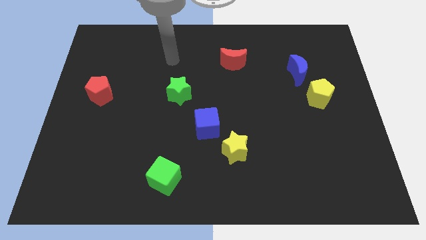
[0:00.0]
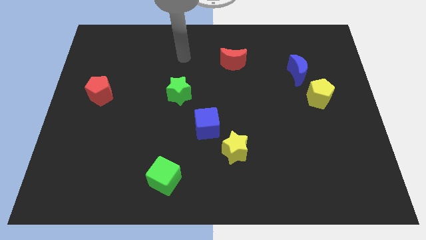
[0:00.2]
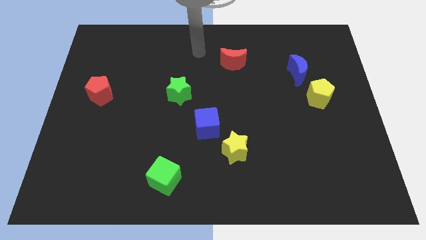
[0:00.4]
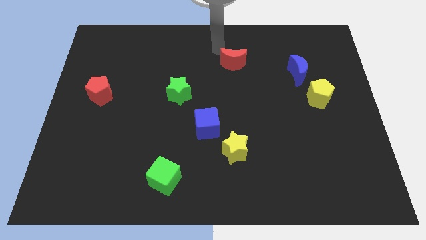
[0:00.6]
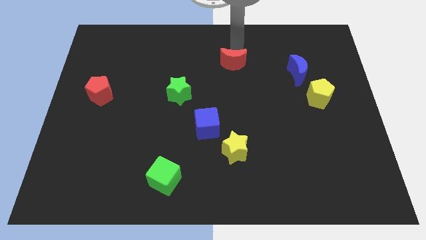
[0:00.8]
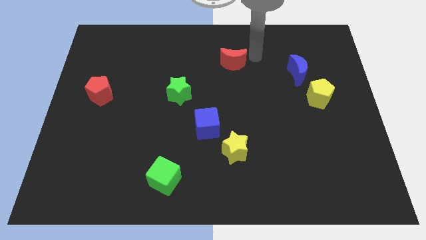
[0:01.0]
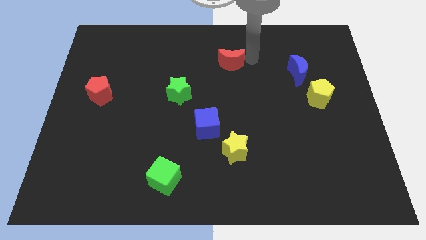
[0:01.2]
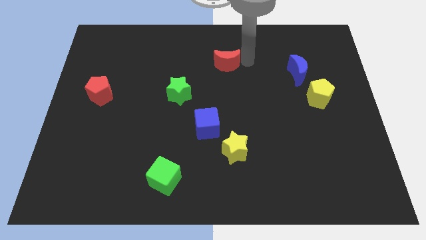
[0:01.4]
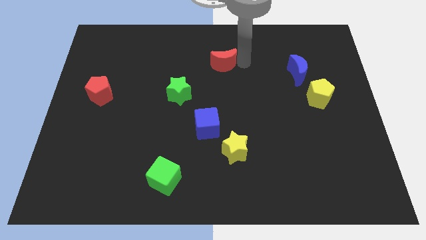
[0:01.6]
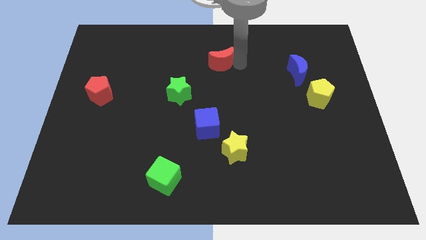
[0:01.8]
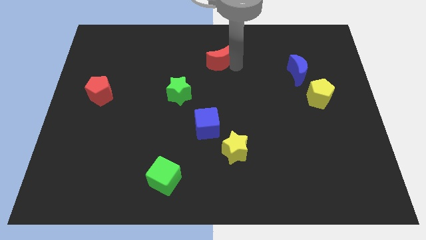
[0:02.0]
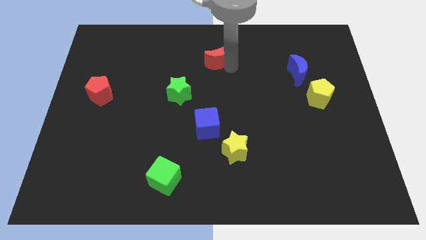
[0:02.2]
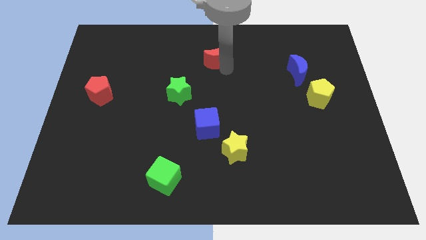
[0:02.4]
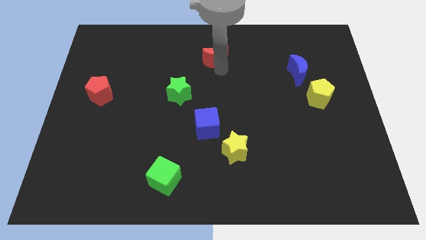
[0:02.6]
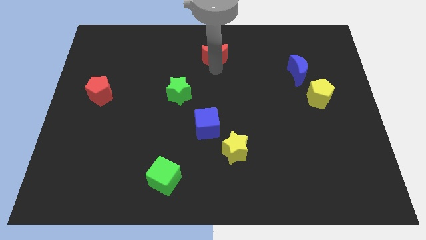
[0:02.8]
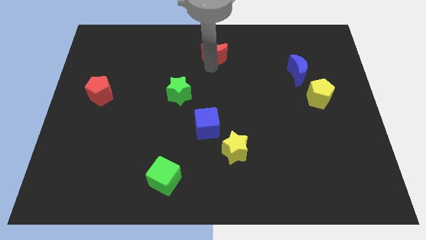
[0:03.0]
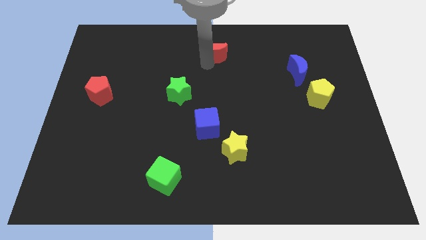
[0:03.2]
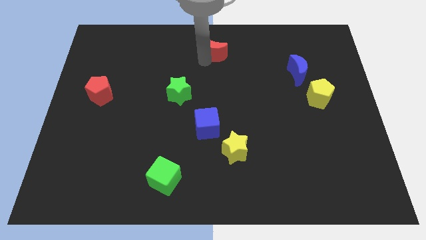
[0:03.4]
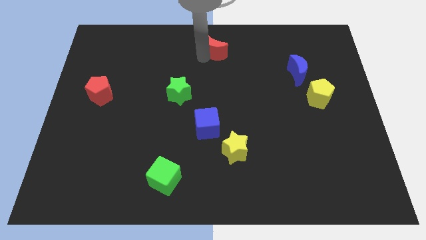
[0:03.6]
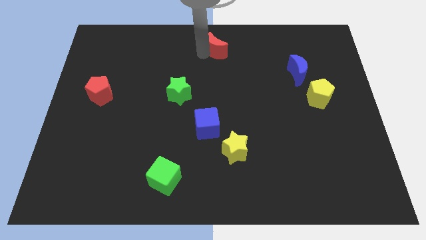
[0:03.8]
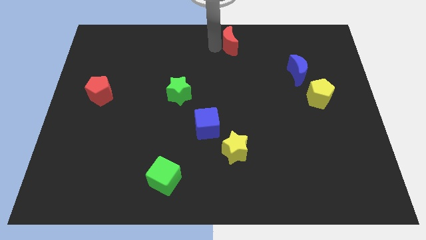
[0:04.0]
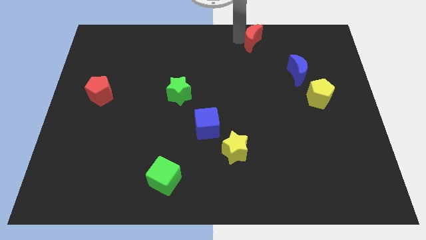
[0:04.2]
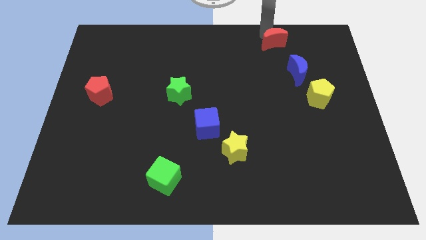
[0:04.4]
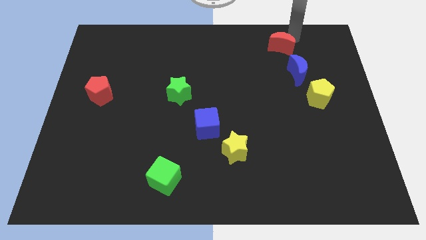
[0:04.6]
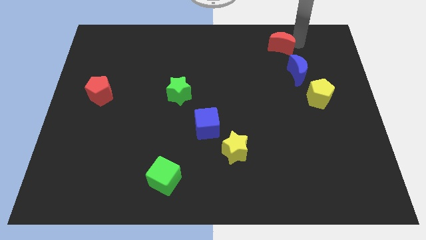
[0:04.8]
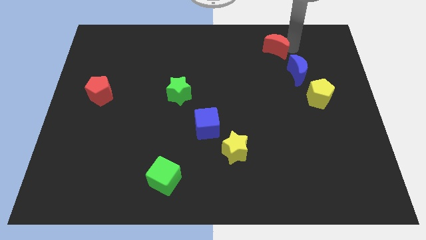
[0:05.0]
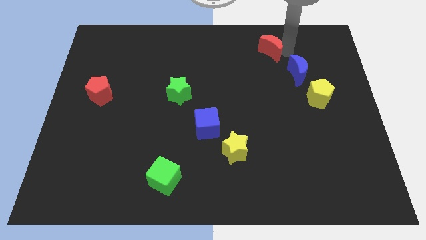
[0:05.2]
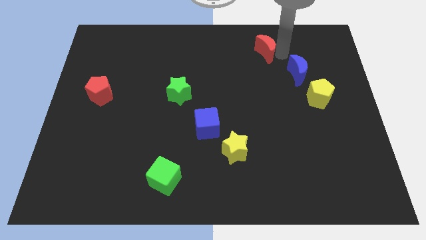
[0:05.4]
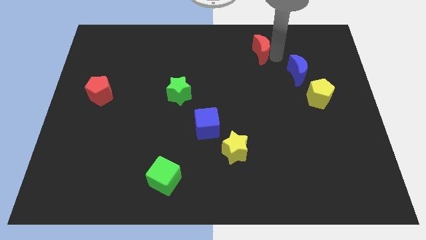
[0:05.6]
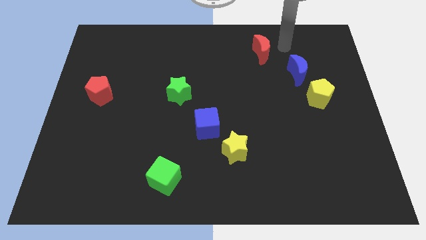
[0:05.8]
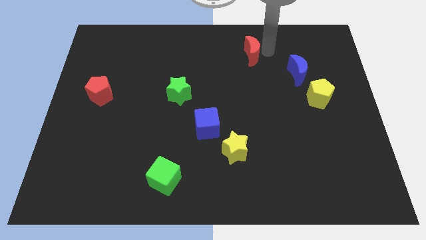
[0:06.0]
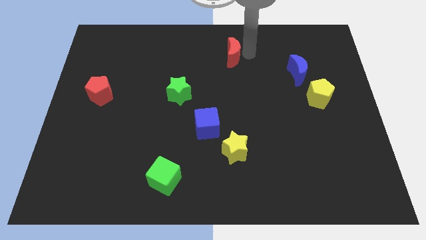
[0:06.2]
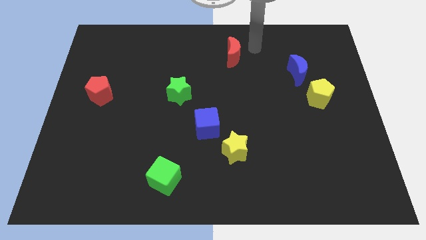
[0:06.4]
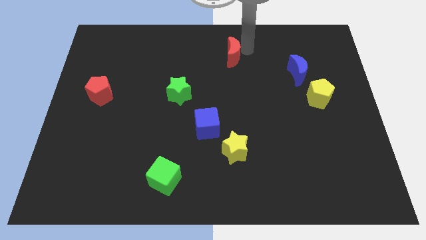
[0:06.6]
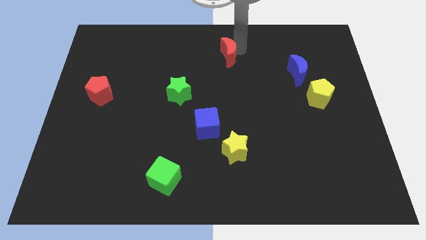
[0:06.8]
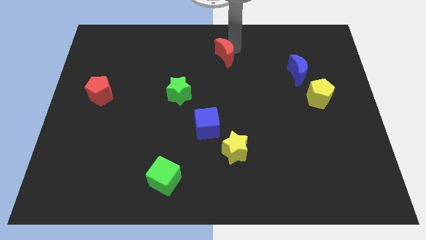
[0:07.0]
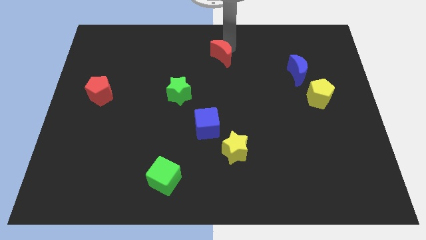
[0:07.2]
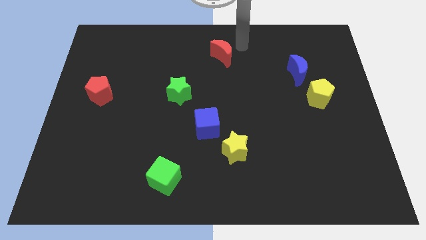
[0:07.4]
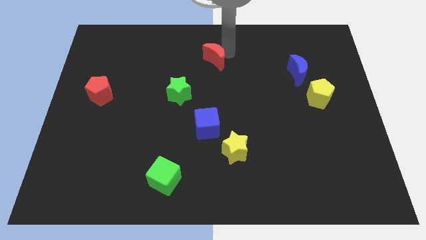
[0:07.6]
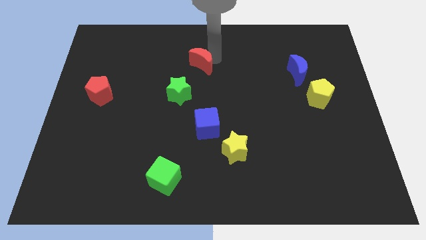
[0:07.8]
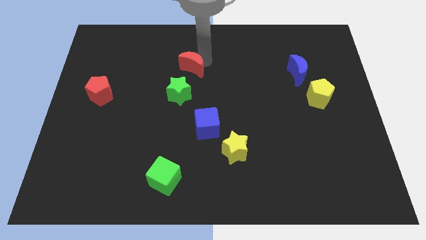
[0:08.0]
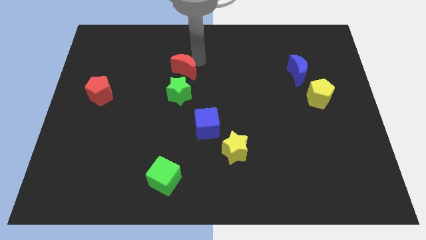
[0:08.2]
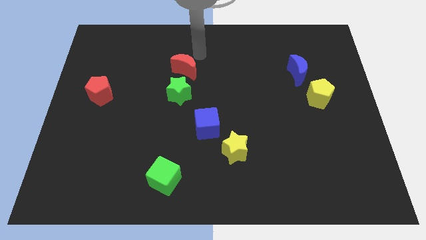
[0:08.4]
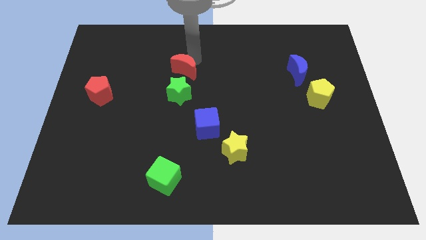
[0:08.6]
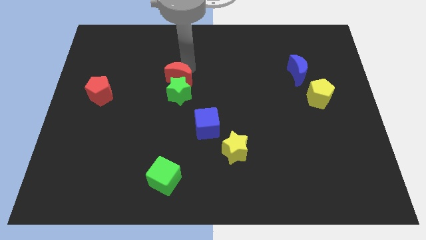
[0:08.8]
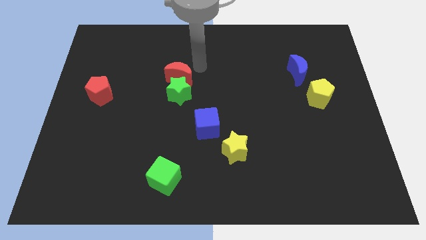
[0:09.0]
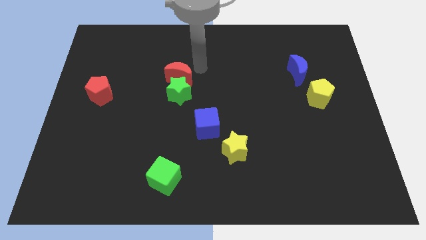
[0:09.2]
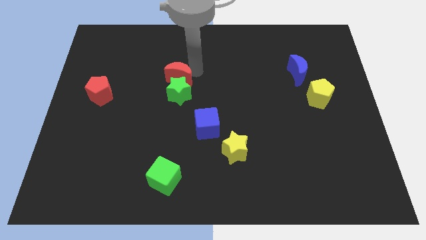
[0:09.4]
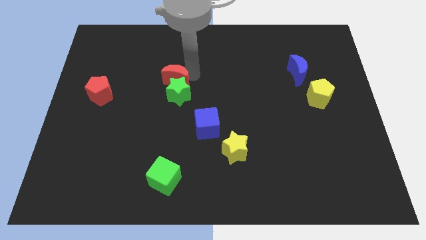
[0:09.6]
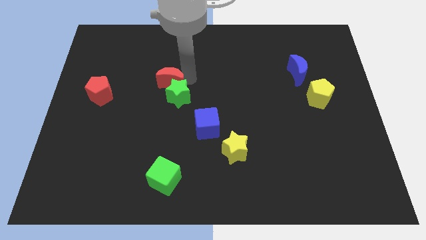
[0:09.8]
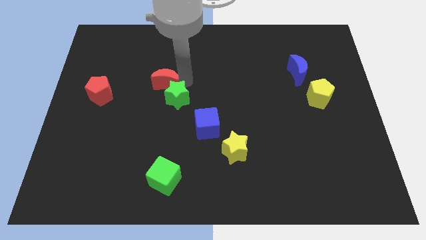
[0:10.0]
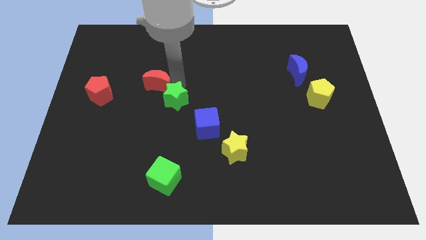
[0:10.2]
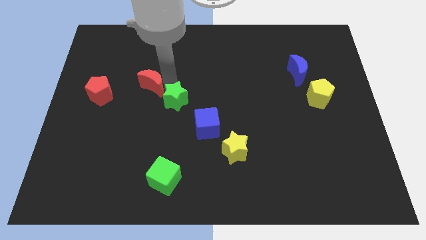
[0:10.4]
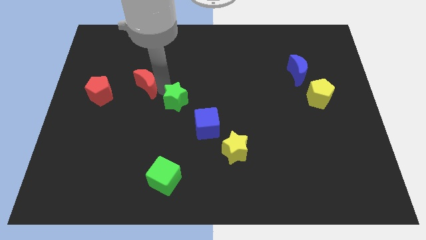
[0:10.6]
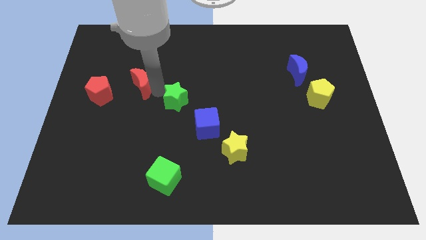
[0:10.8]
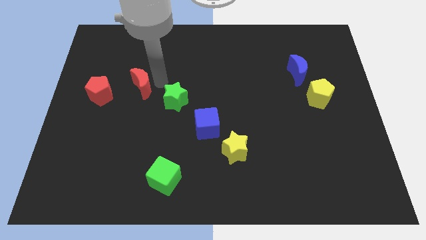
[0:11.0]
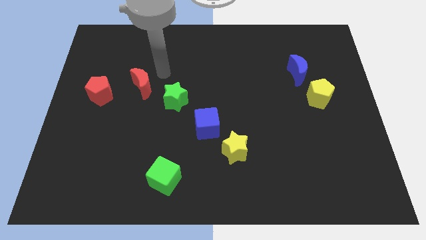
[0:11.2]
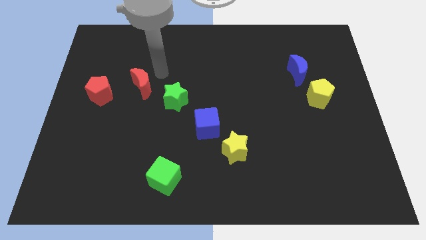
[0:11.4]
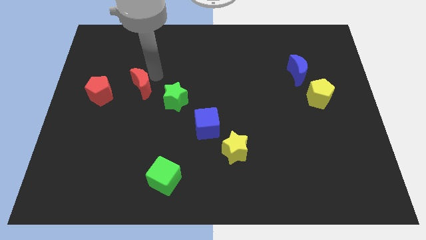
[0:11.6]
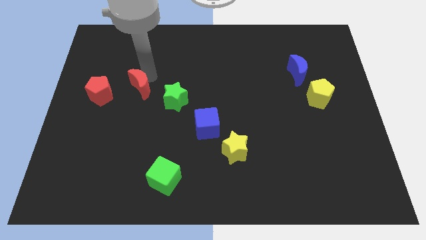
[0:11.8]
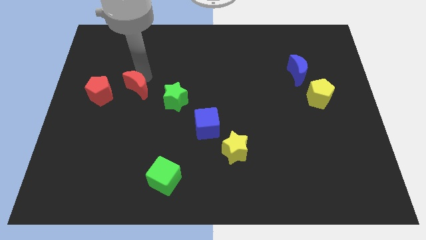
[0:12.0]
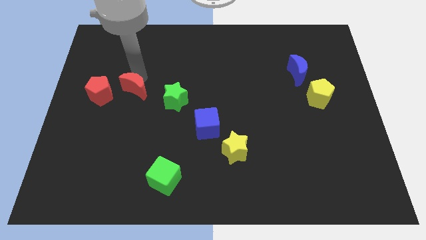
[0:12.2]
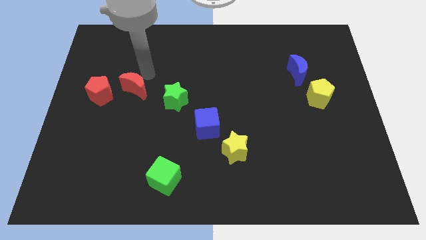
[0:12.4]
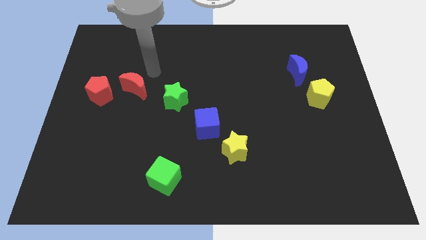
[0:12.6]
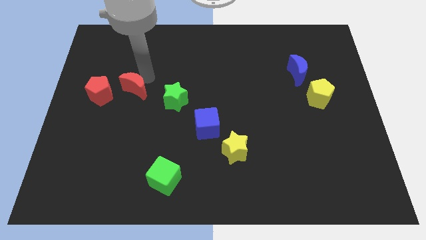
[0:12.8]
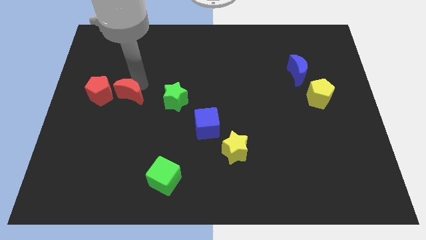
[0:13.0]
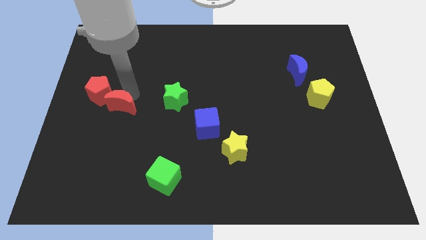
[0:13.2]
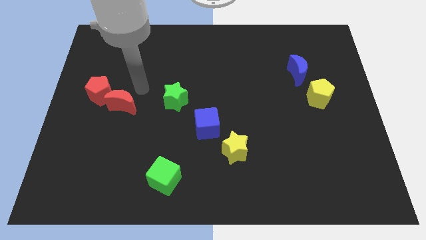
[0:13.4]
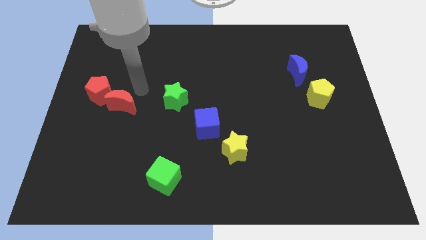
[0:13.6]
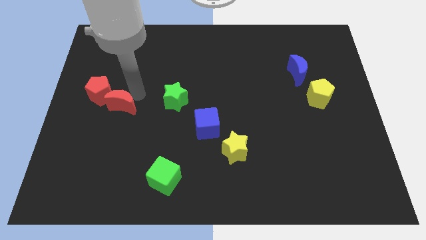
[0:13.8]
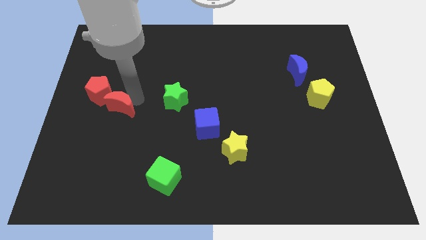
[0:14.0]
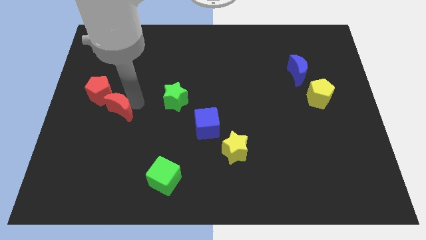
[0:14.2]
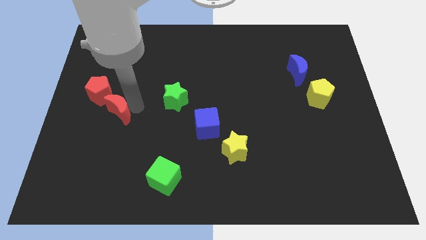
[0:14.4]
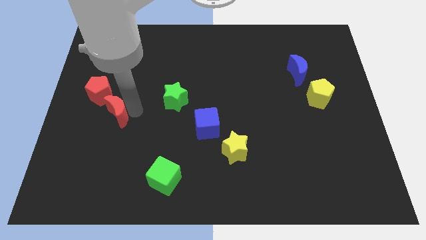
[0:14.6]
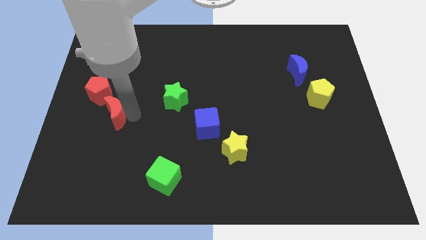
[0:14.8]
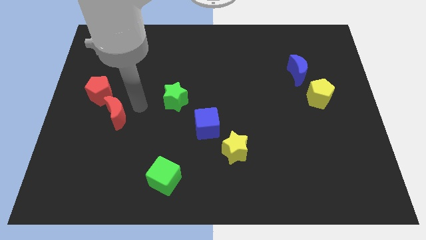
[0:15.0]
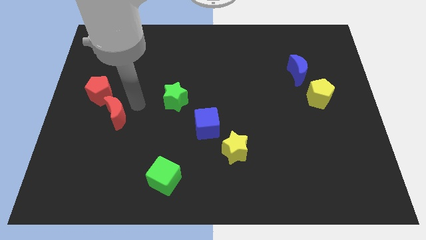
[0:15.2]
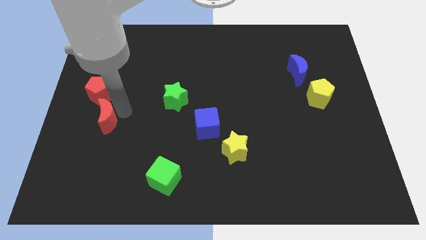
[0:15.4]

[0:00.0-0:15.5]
move the red moon below the red pentagon
